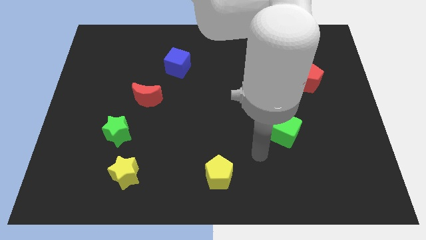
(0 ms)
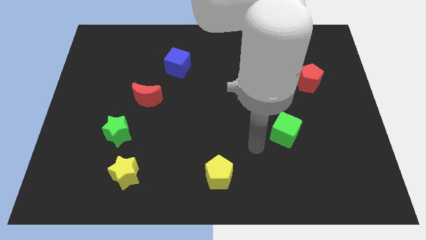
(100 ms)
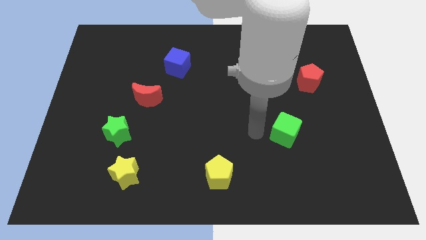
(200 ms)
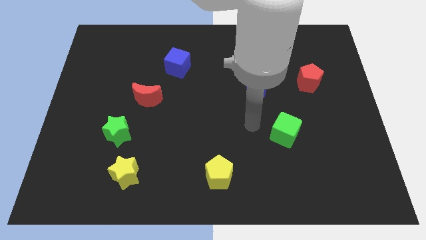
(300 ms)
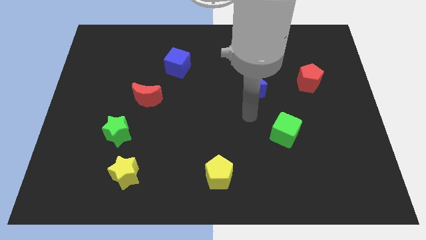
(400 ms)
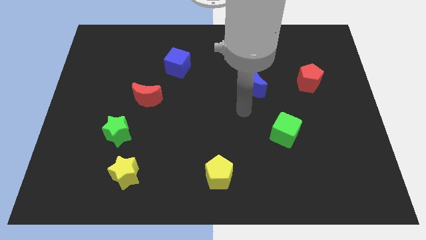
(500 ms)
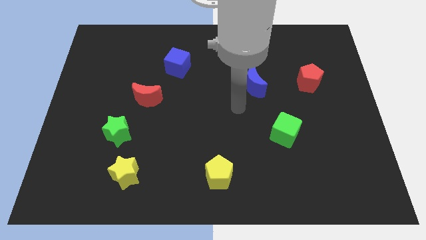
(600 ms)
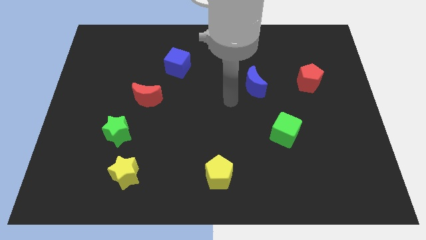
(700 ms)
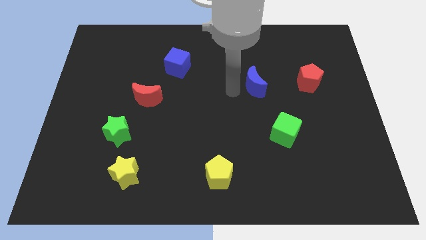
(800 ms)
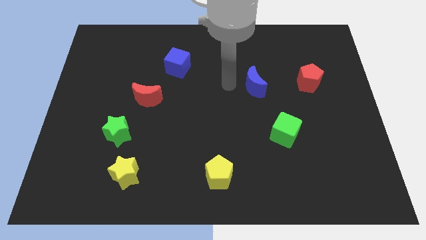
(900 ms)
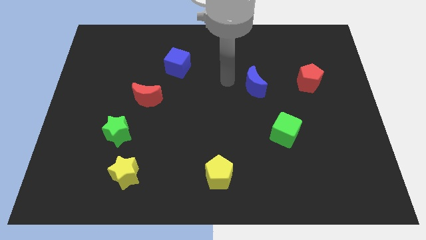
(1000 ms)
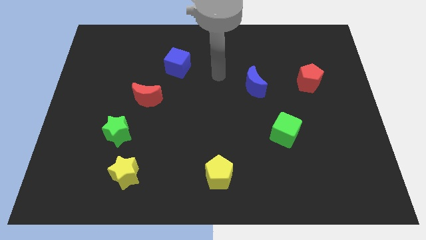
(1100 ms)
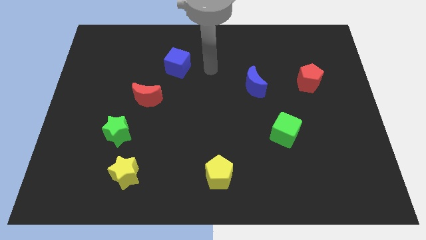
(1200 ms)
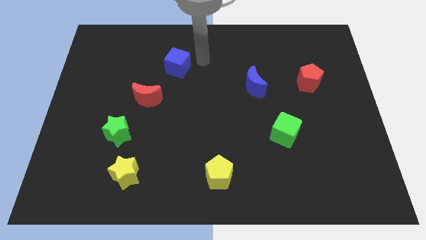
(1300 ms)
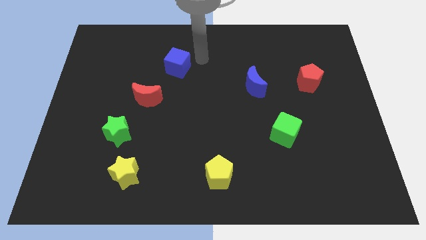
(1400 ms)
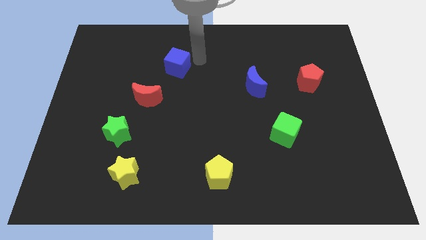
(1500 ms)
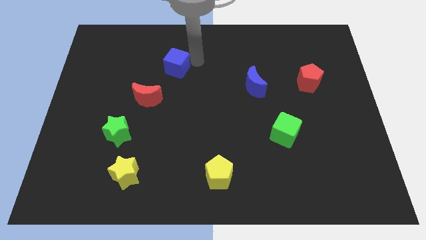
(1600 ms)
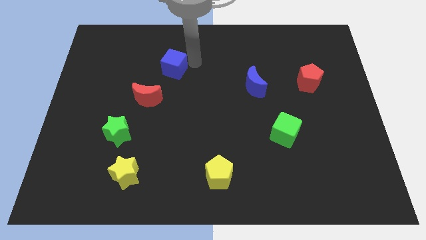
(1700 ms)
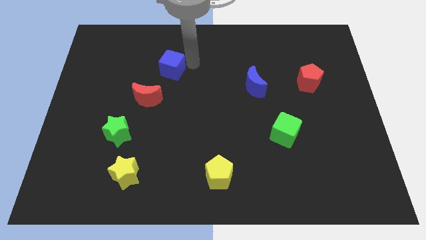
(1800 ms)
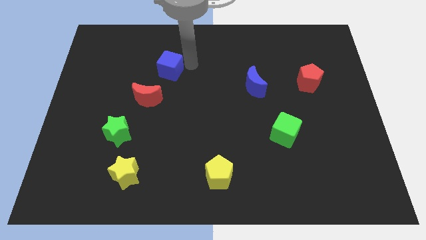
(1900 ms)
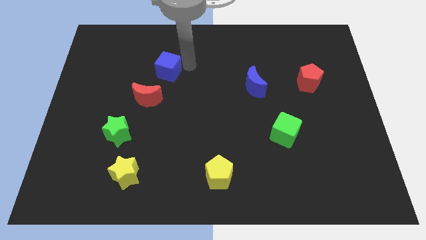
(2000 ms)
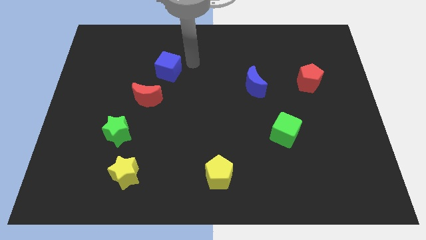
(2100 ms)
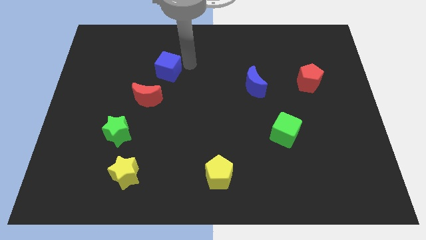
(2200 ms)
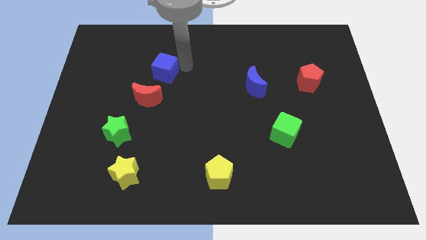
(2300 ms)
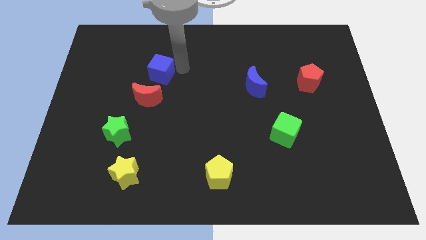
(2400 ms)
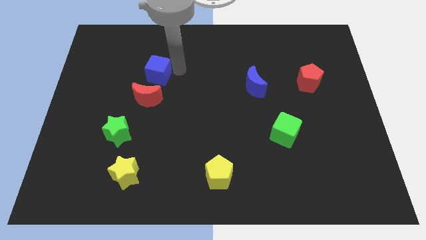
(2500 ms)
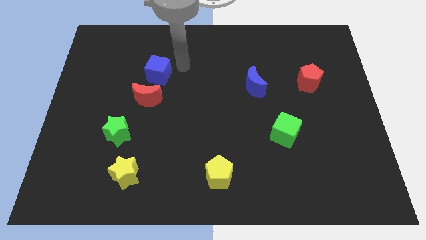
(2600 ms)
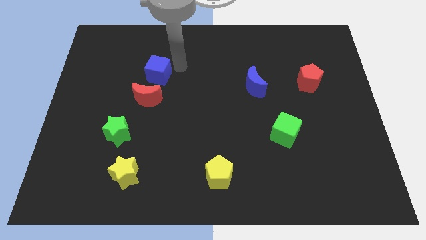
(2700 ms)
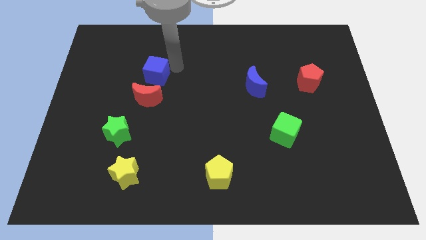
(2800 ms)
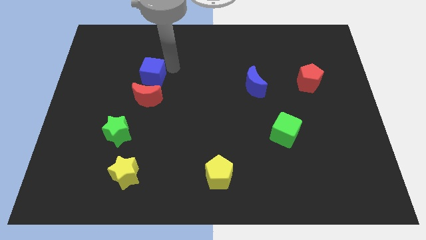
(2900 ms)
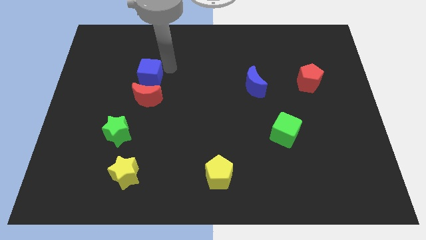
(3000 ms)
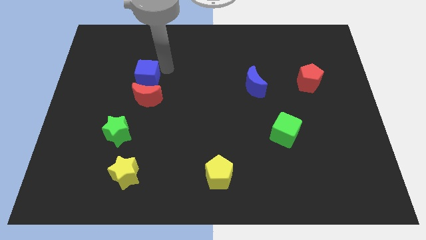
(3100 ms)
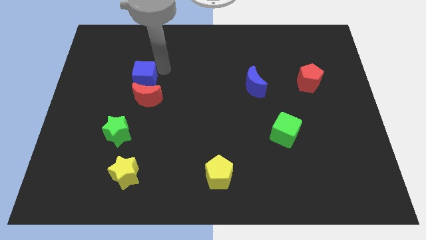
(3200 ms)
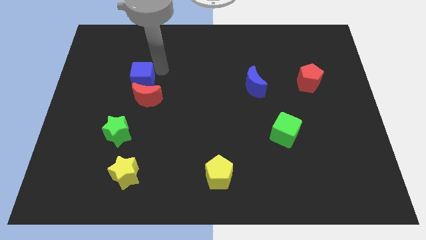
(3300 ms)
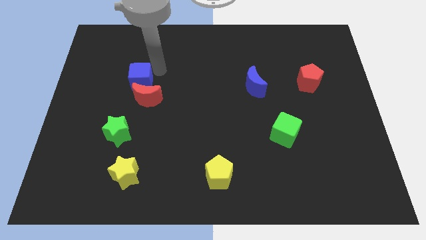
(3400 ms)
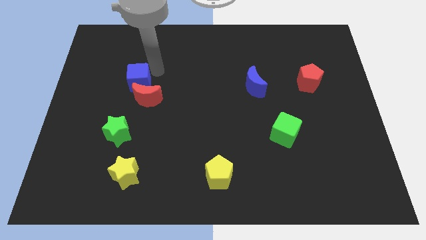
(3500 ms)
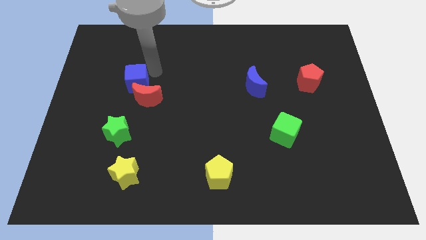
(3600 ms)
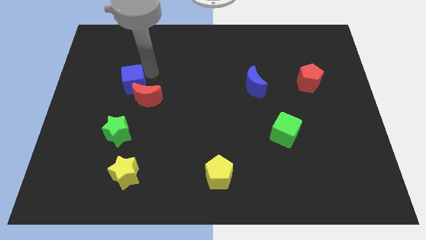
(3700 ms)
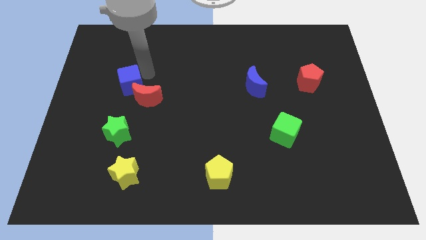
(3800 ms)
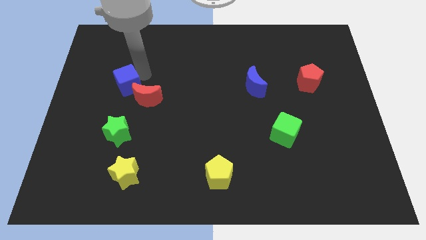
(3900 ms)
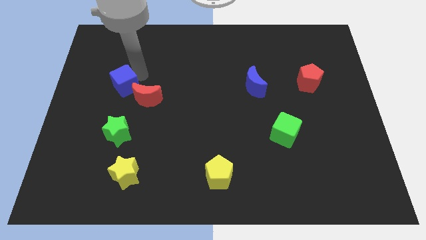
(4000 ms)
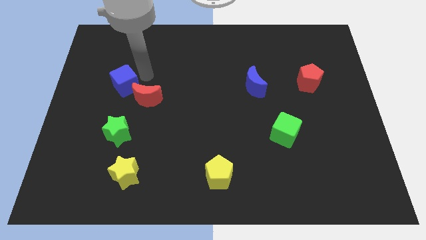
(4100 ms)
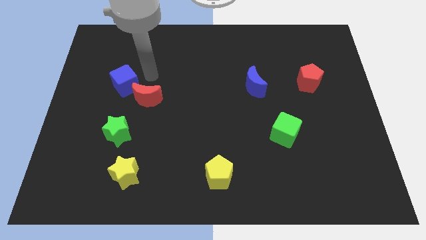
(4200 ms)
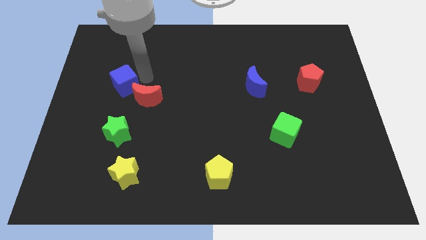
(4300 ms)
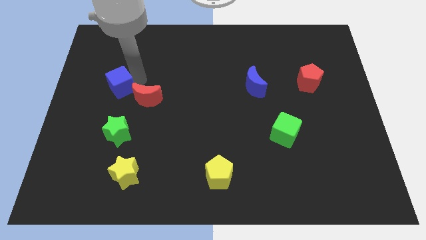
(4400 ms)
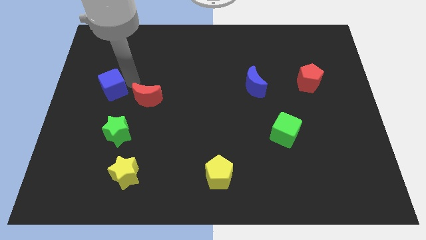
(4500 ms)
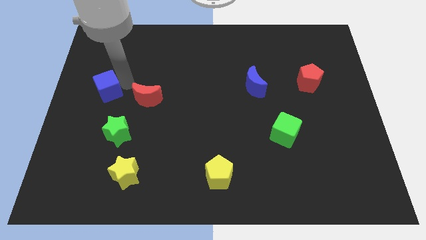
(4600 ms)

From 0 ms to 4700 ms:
slide the blue cube to the left side

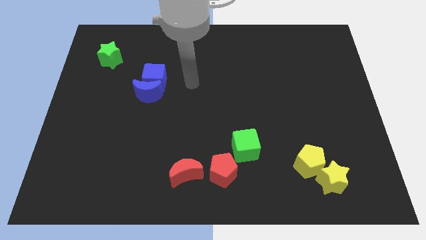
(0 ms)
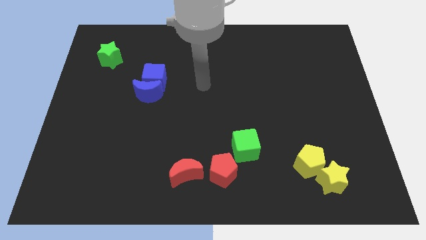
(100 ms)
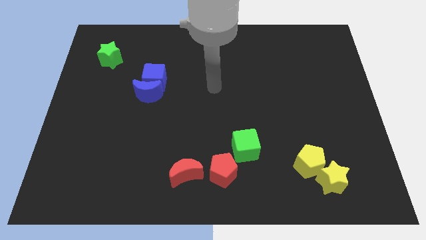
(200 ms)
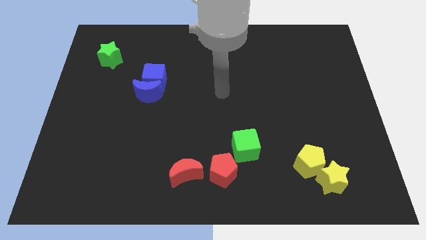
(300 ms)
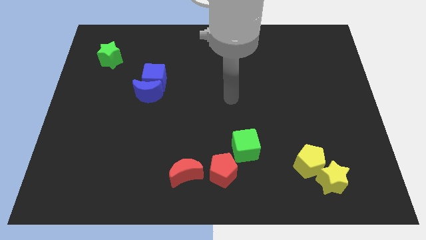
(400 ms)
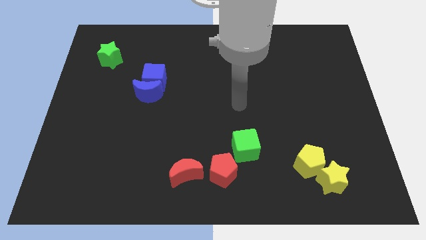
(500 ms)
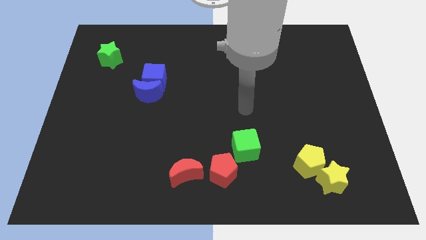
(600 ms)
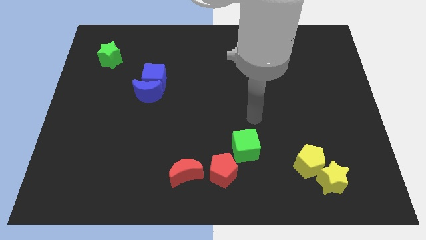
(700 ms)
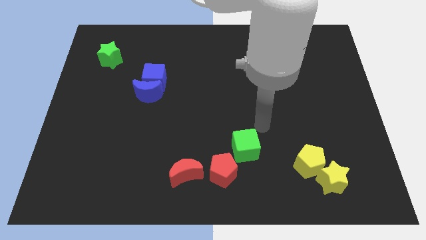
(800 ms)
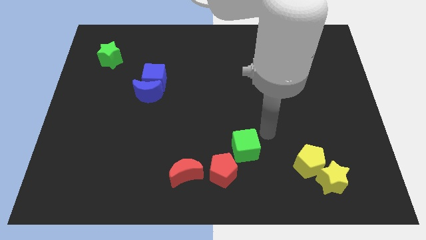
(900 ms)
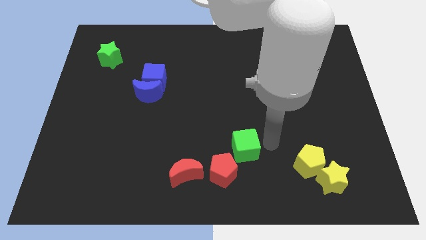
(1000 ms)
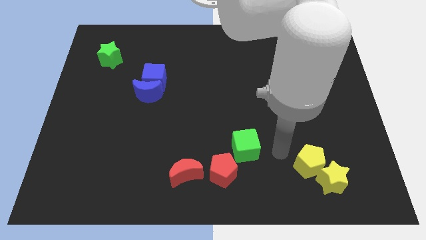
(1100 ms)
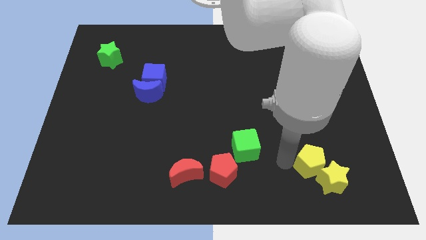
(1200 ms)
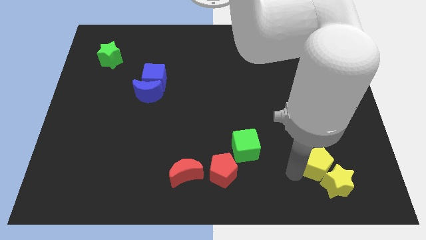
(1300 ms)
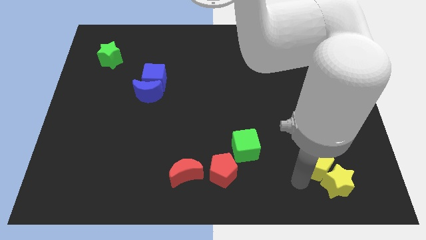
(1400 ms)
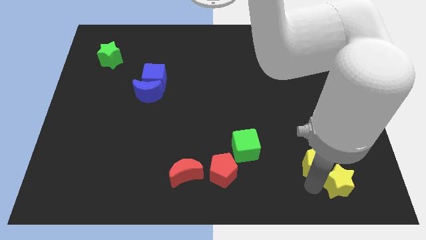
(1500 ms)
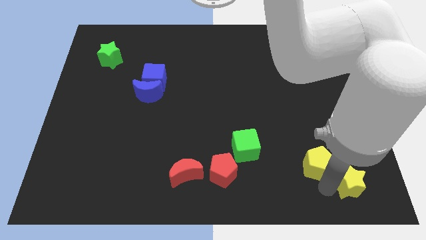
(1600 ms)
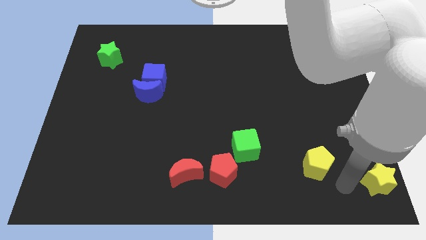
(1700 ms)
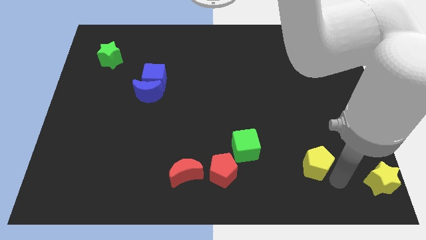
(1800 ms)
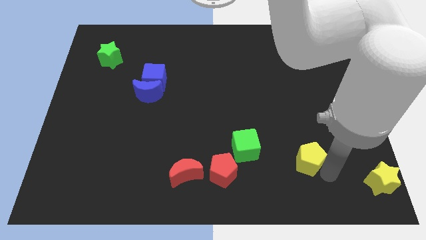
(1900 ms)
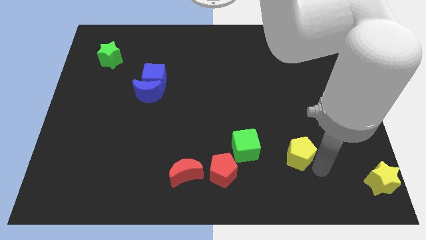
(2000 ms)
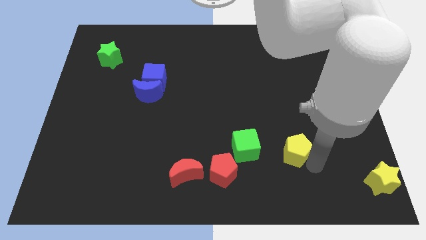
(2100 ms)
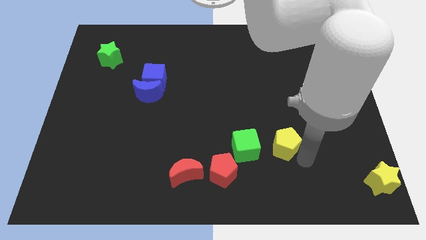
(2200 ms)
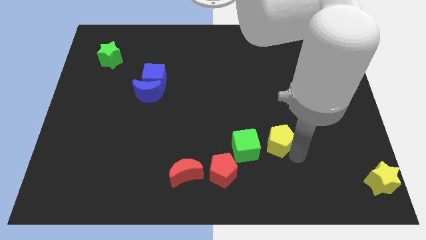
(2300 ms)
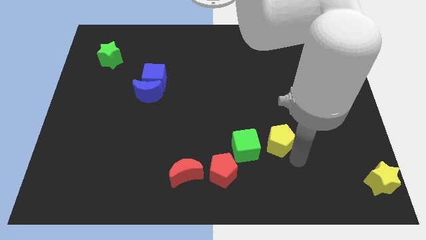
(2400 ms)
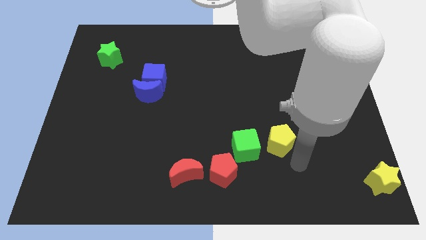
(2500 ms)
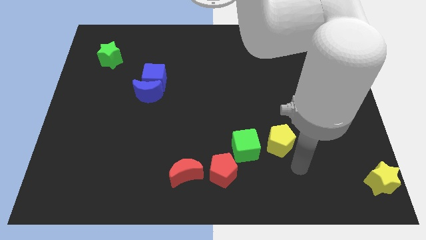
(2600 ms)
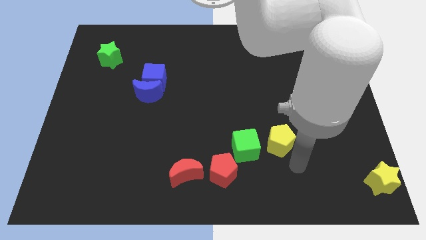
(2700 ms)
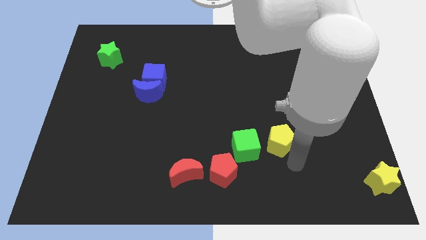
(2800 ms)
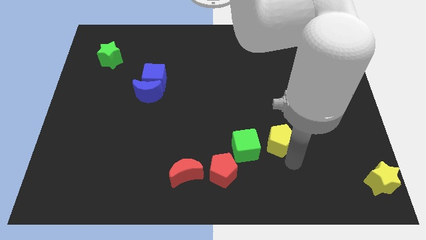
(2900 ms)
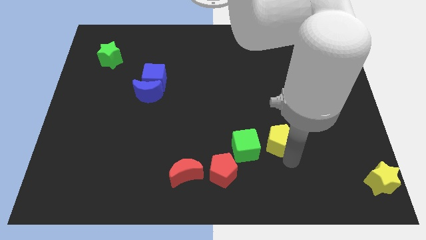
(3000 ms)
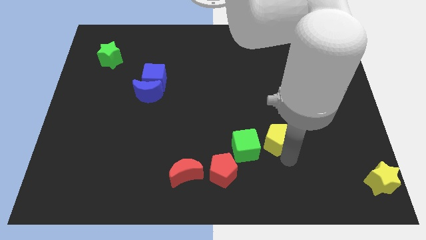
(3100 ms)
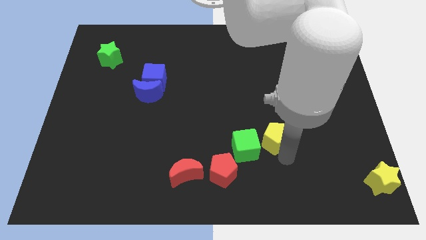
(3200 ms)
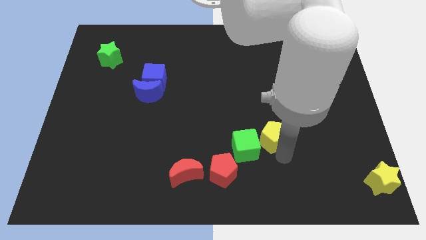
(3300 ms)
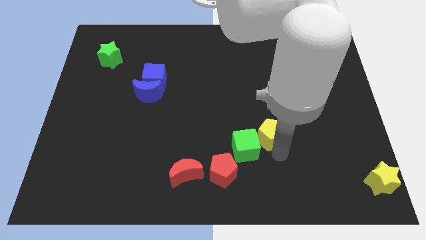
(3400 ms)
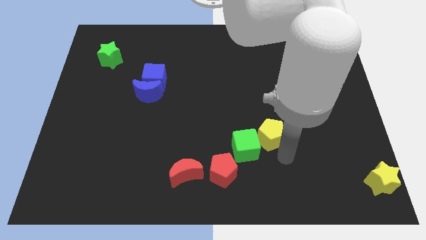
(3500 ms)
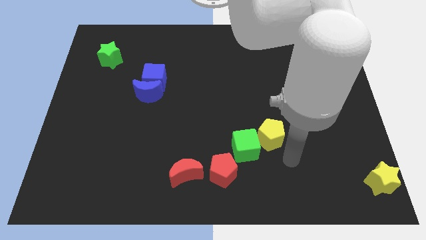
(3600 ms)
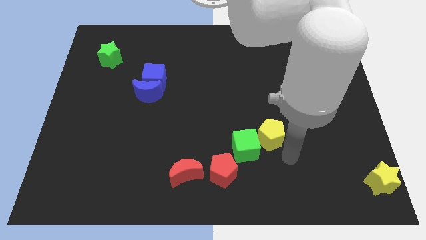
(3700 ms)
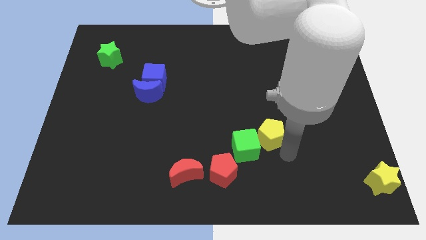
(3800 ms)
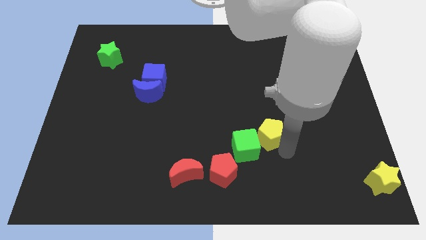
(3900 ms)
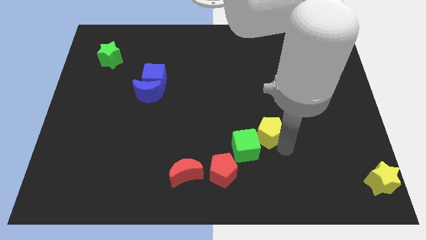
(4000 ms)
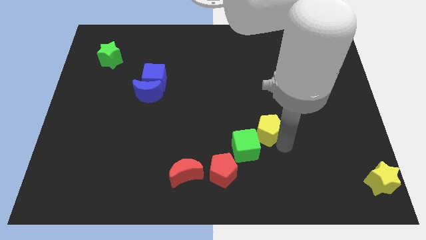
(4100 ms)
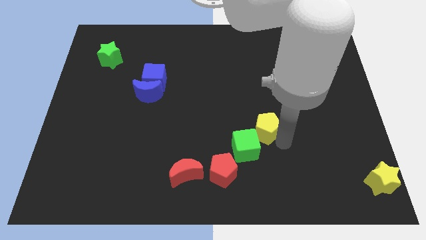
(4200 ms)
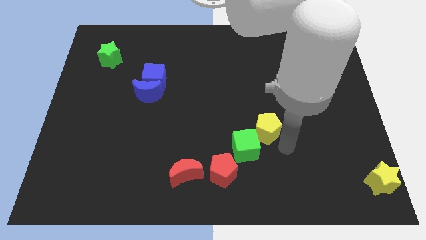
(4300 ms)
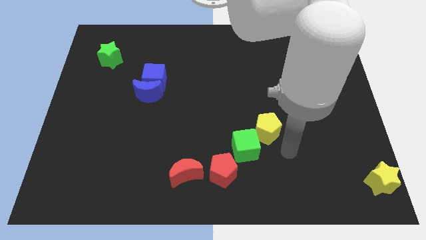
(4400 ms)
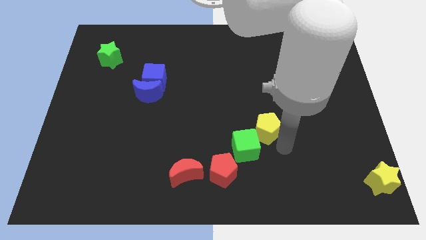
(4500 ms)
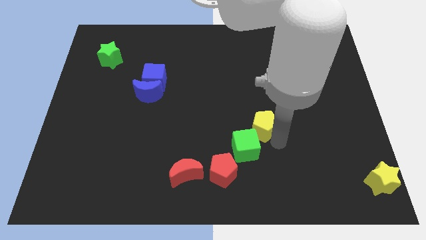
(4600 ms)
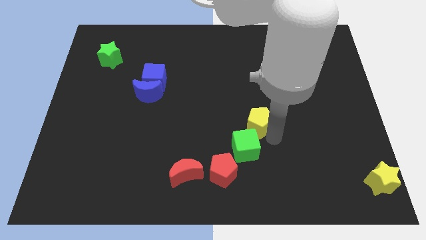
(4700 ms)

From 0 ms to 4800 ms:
push the yellow pentagon to the center
